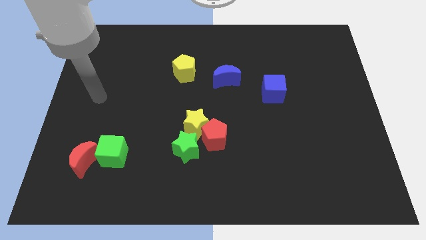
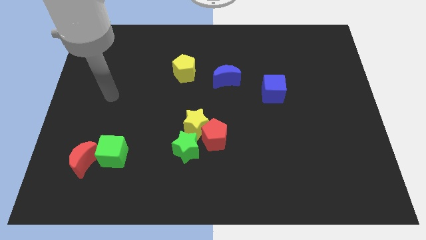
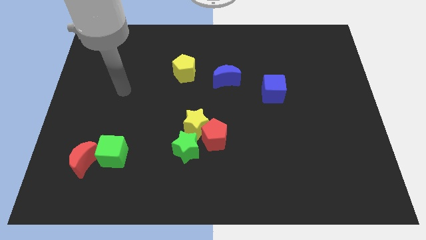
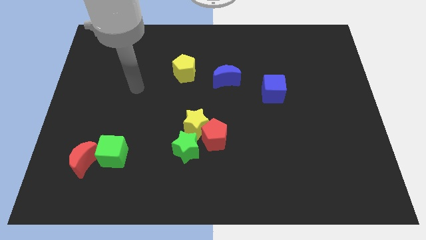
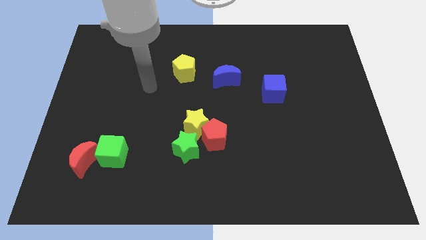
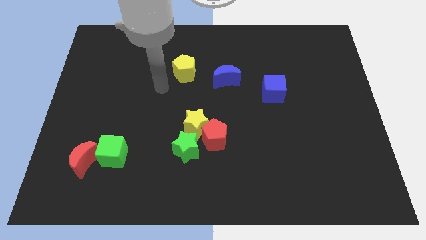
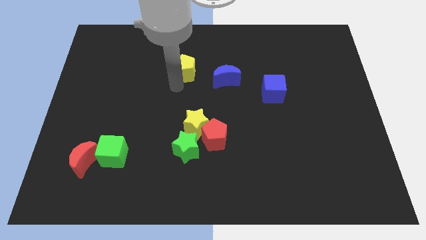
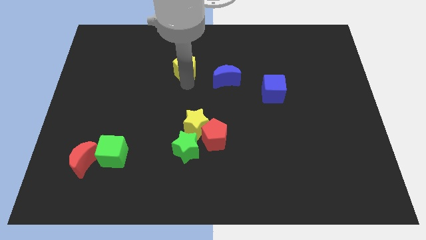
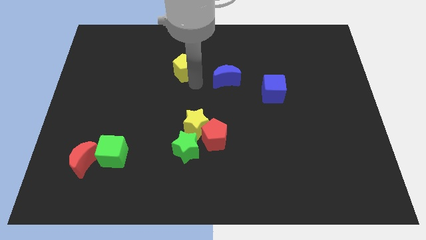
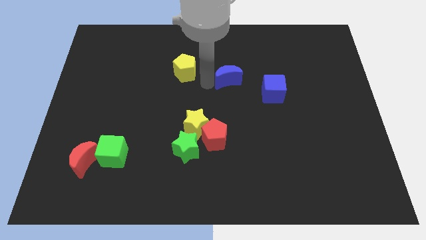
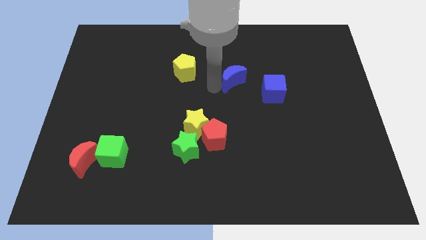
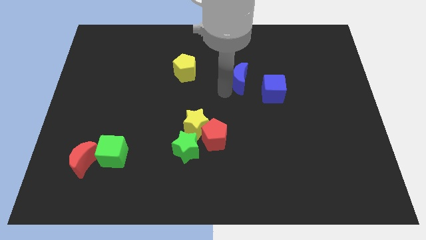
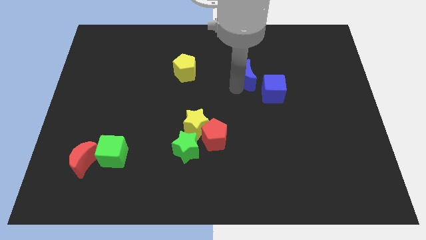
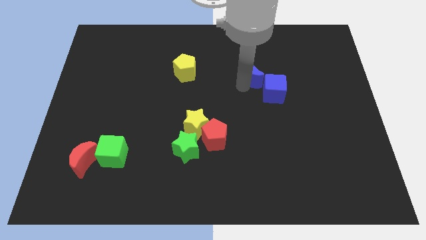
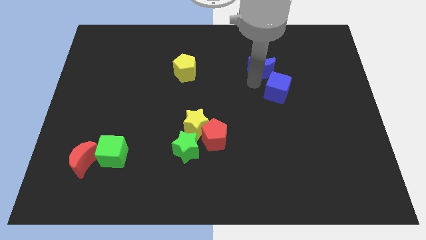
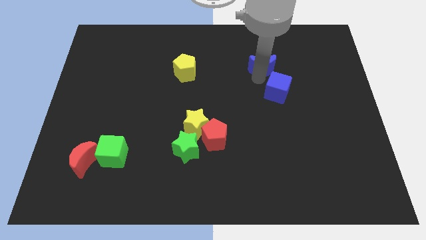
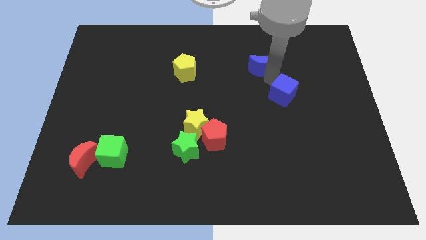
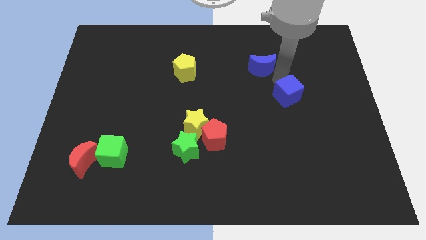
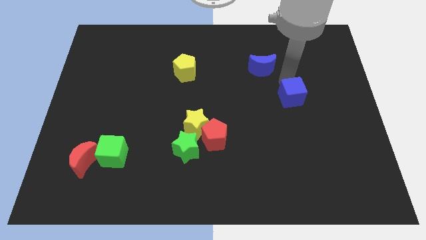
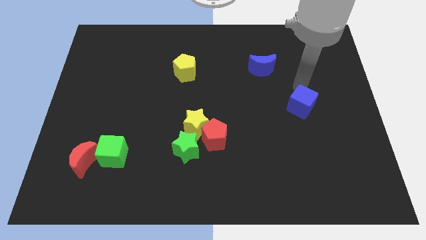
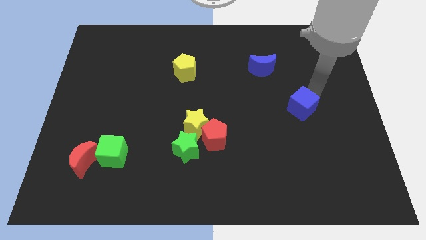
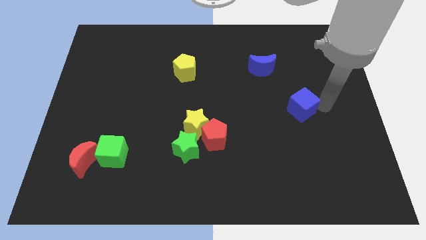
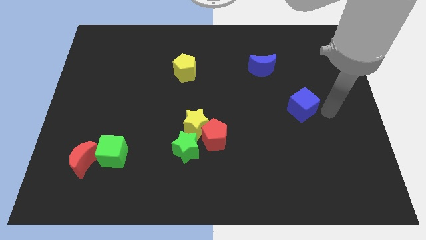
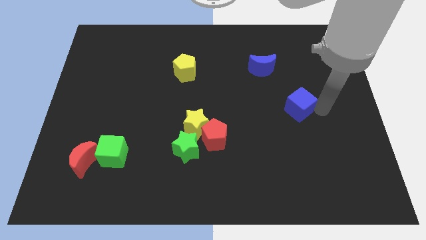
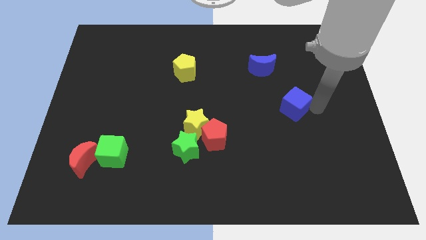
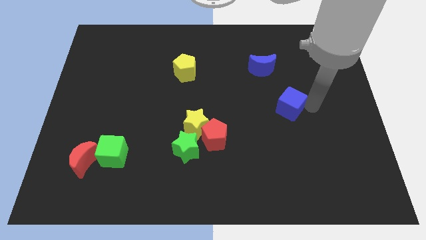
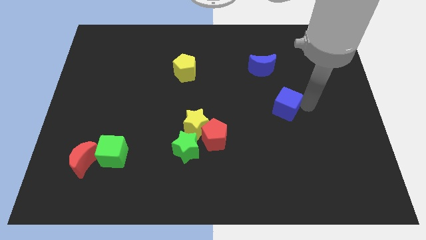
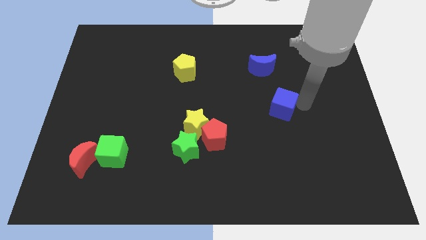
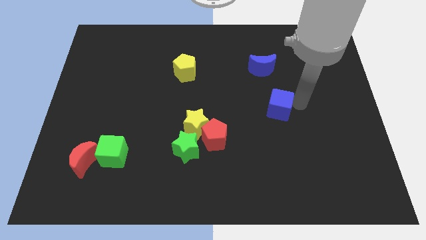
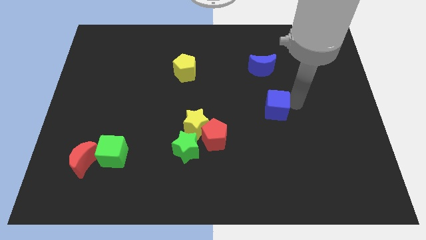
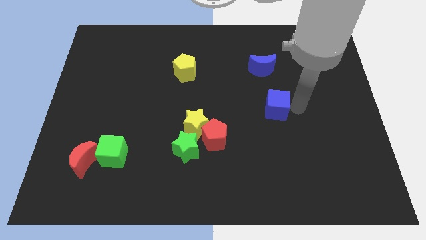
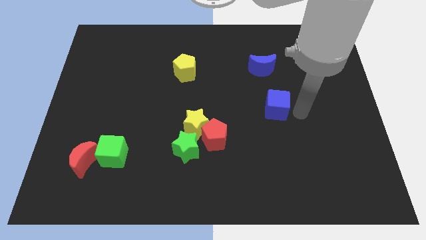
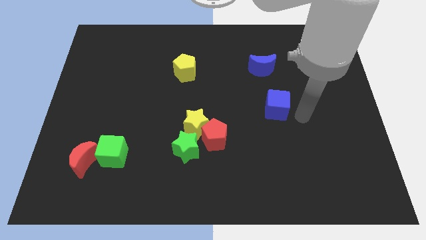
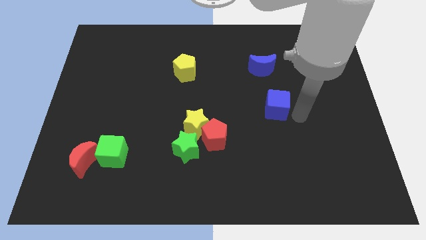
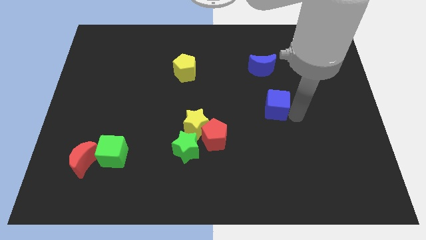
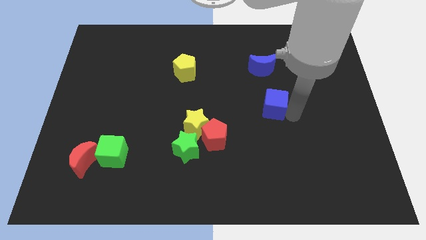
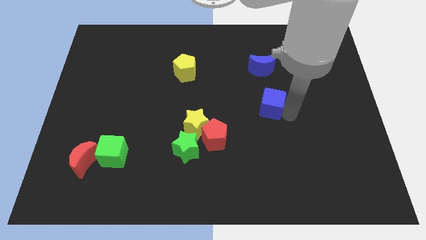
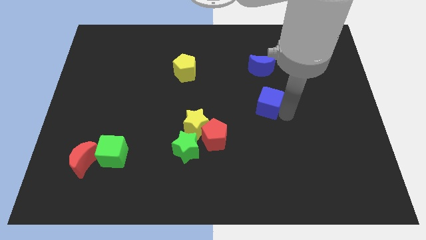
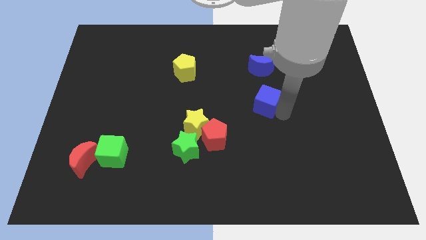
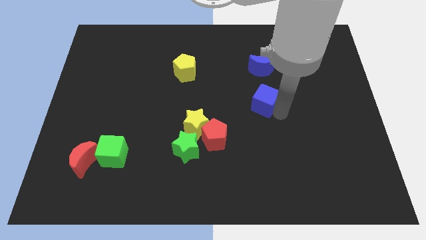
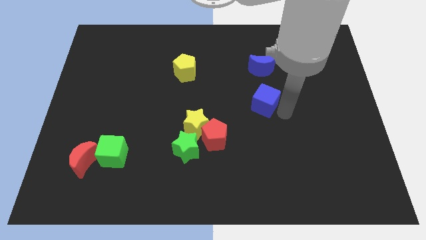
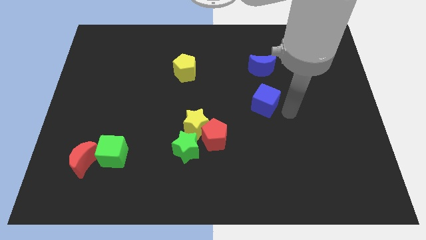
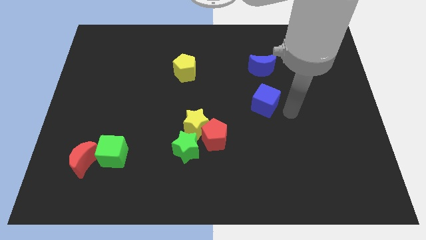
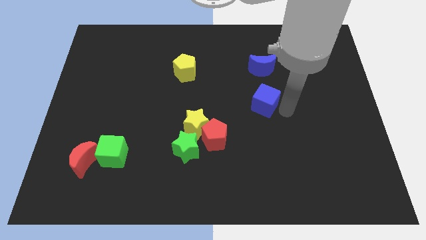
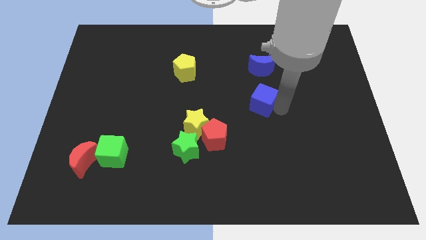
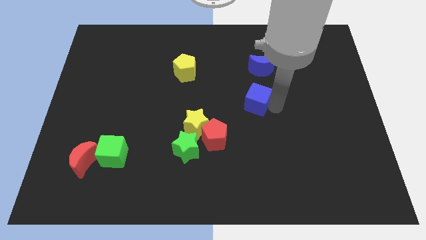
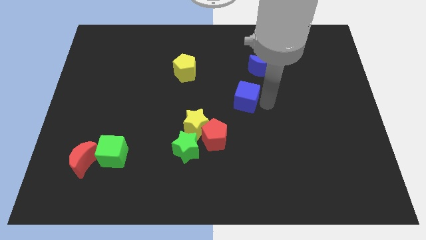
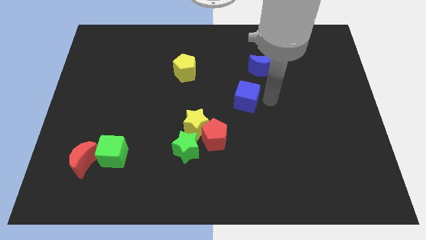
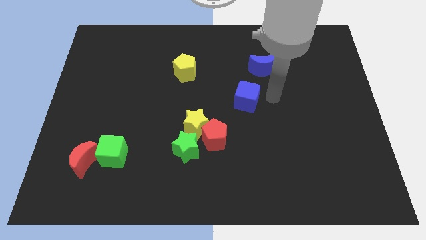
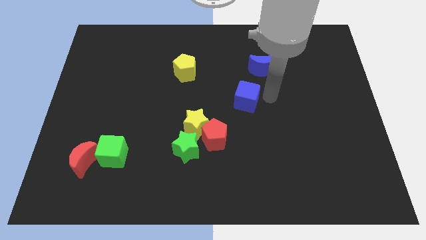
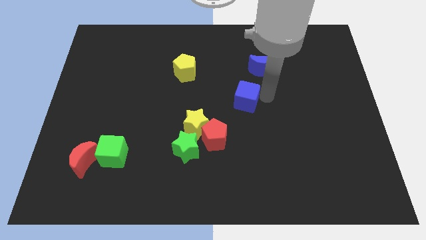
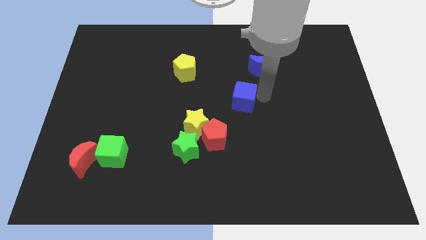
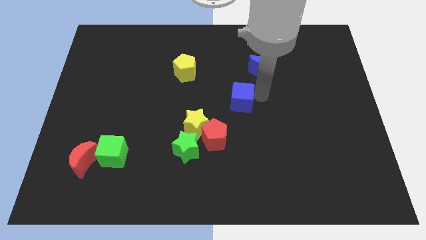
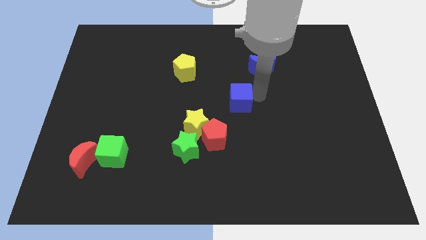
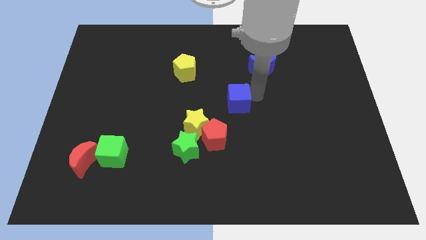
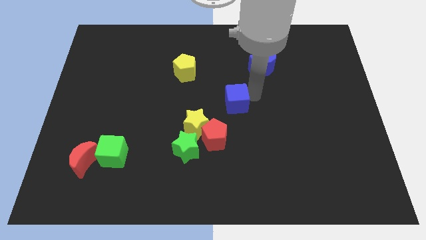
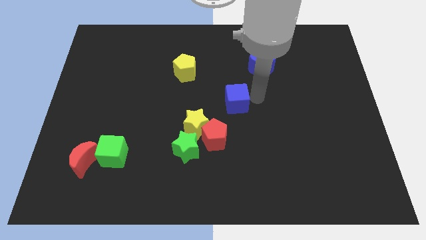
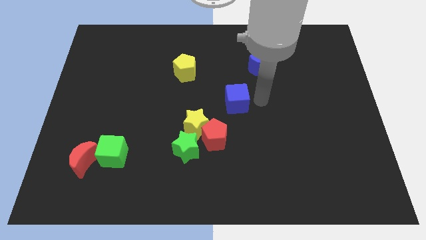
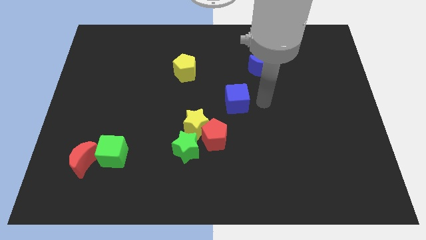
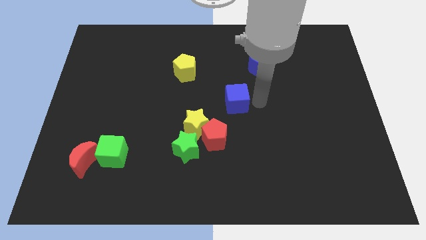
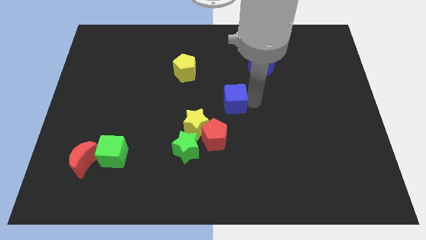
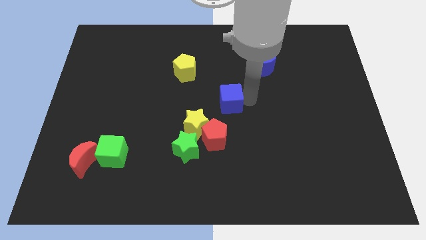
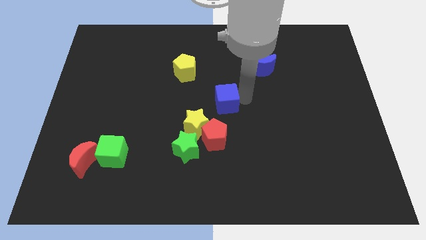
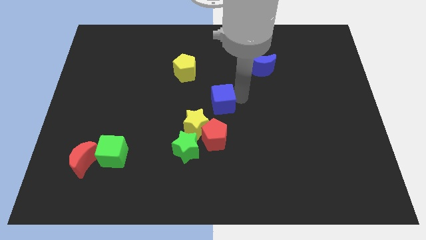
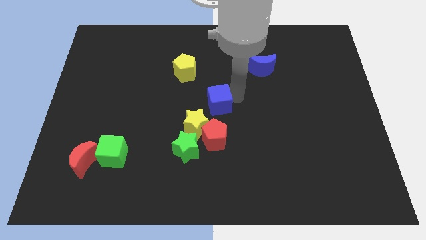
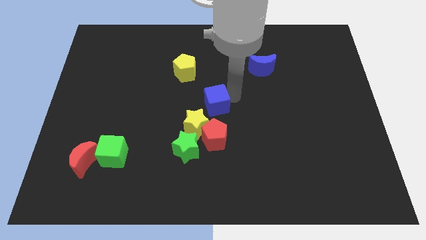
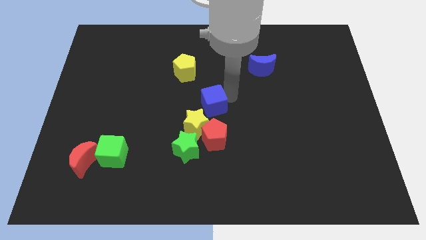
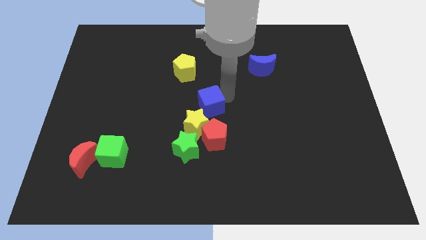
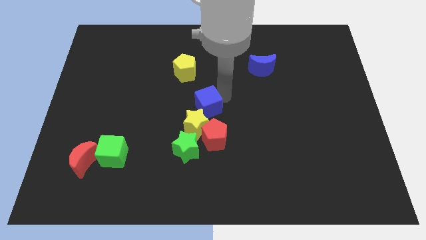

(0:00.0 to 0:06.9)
push the blue cube above the green star
